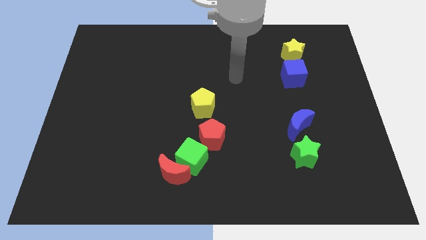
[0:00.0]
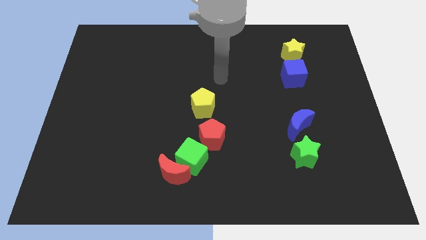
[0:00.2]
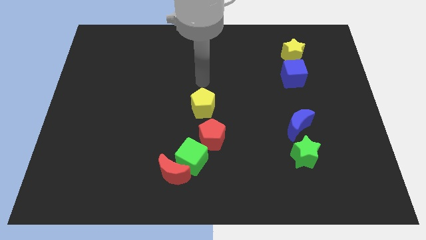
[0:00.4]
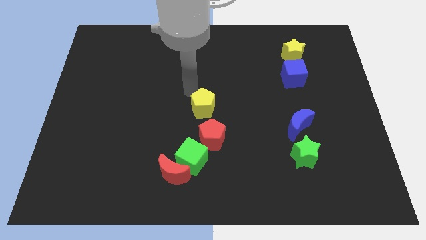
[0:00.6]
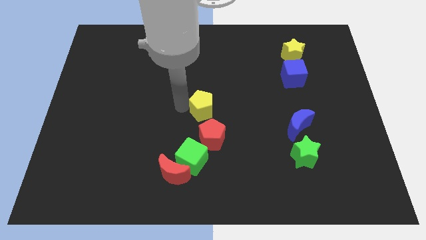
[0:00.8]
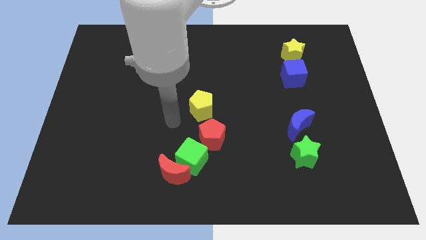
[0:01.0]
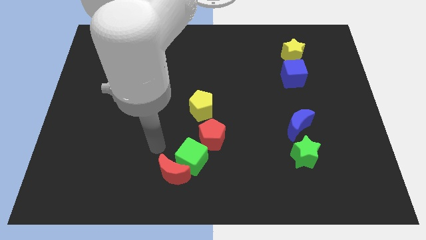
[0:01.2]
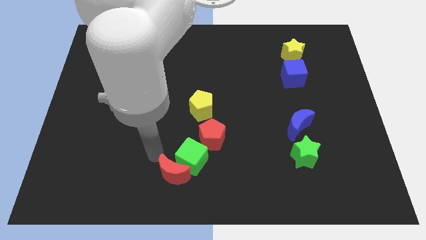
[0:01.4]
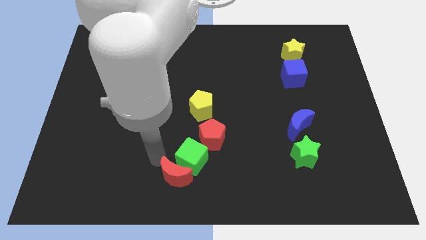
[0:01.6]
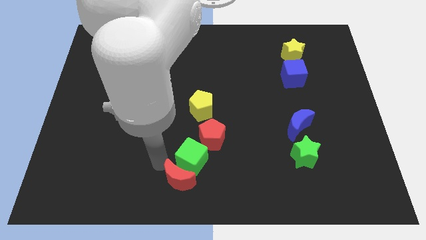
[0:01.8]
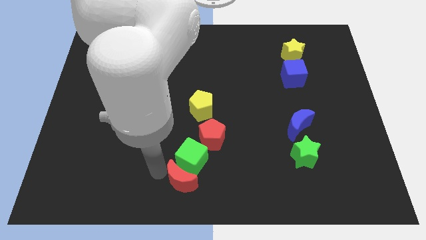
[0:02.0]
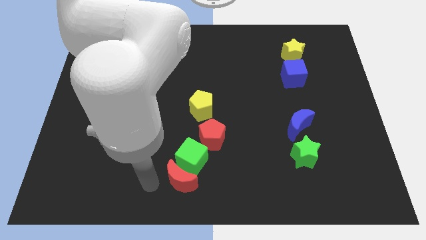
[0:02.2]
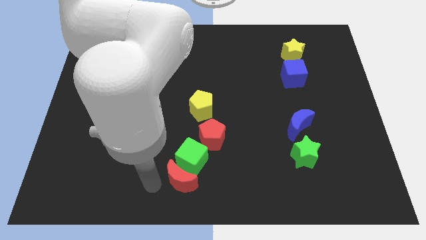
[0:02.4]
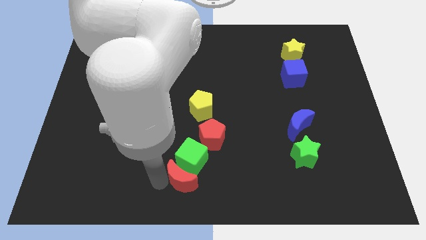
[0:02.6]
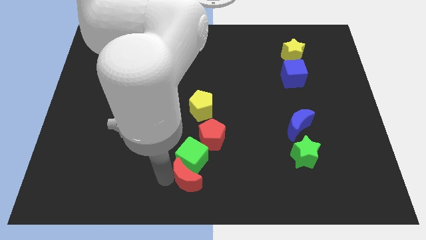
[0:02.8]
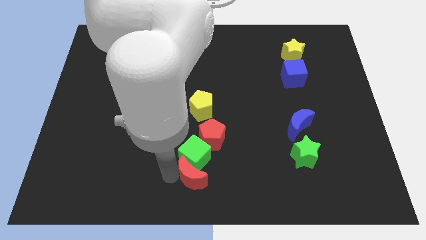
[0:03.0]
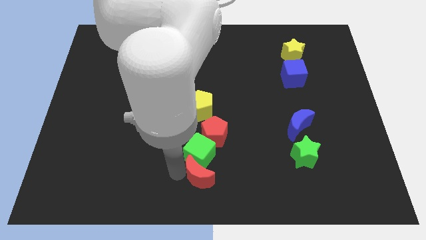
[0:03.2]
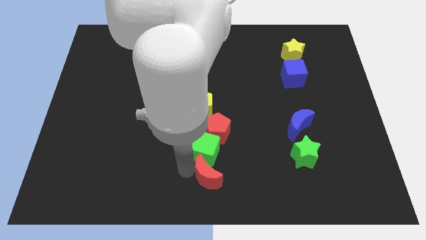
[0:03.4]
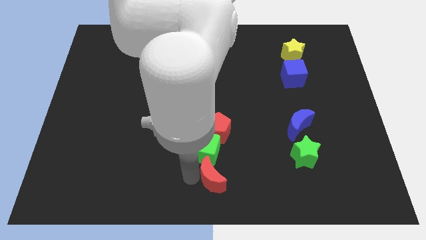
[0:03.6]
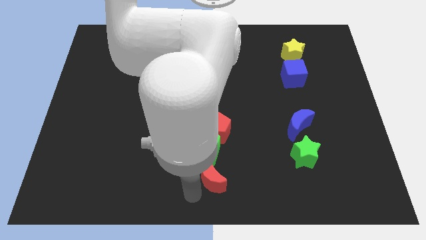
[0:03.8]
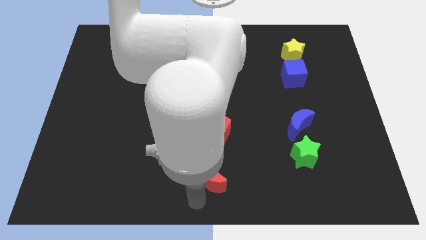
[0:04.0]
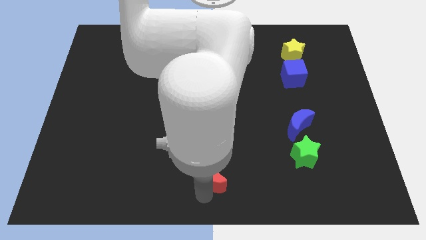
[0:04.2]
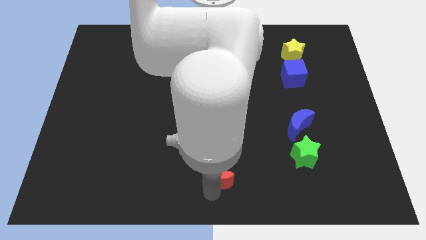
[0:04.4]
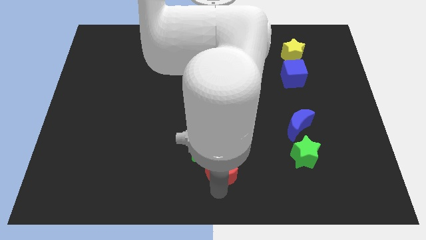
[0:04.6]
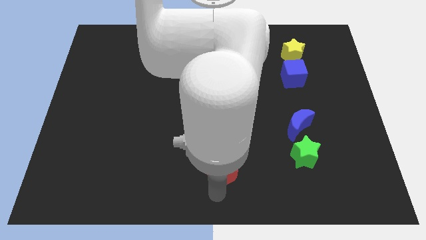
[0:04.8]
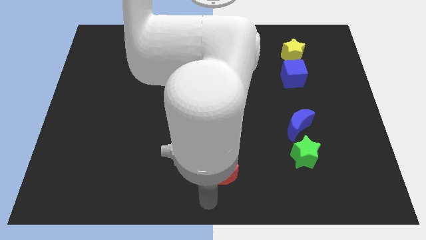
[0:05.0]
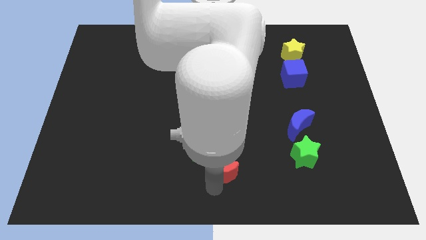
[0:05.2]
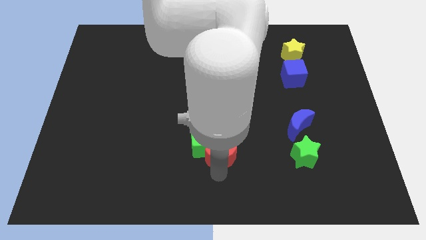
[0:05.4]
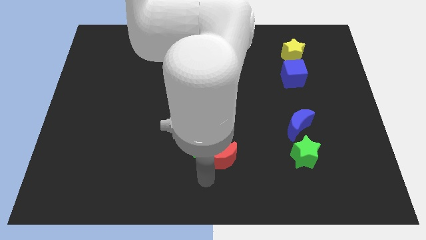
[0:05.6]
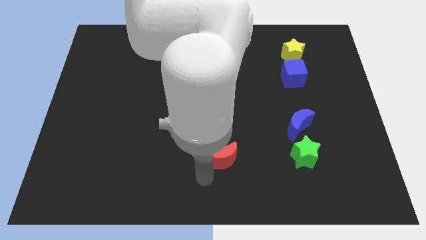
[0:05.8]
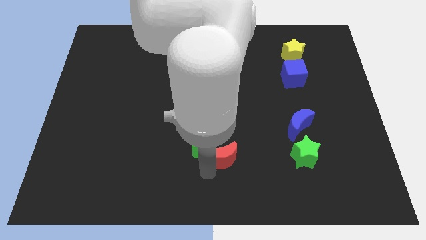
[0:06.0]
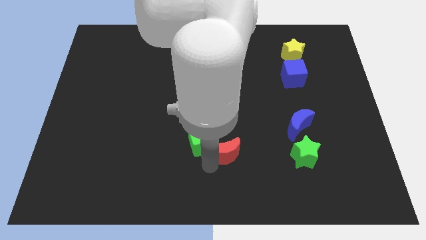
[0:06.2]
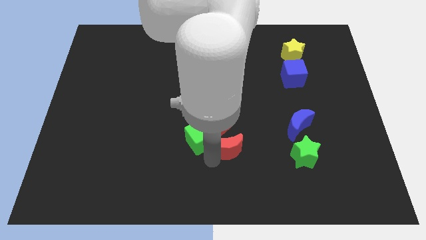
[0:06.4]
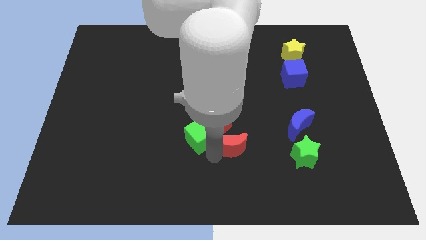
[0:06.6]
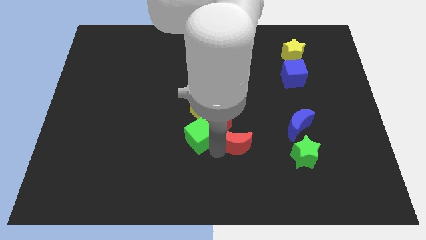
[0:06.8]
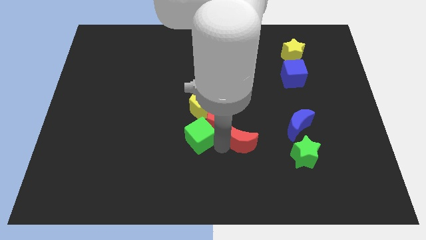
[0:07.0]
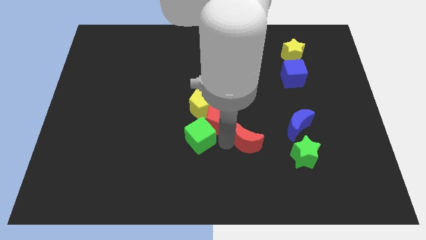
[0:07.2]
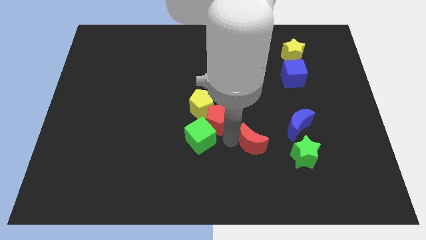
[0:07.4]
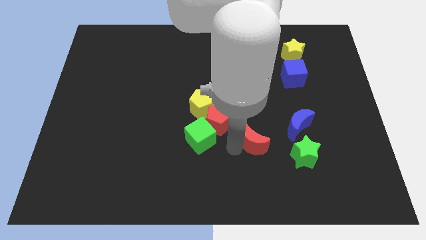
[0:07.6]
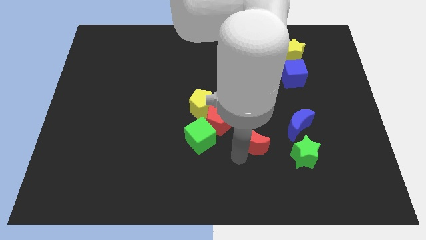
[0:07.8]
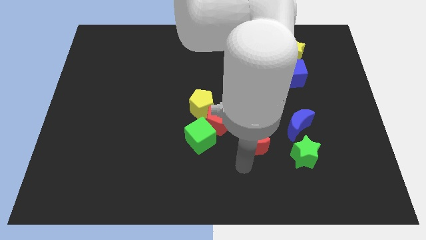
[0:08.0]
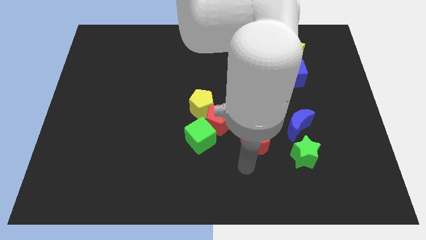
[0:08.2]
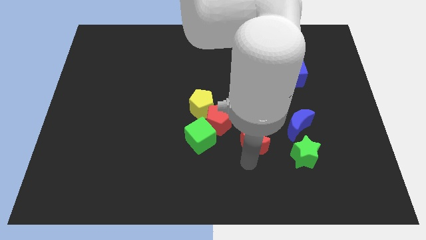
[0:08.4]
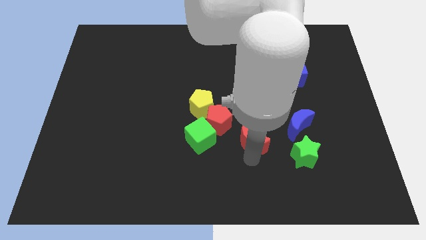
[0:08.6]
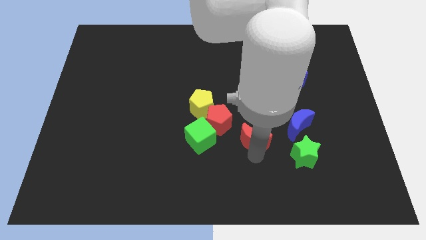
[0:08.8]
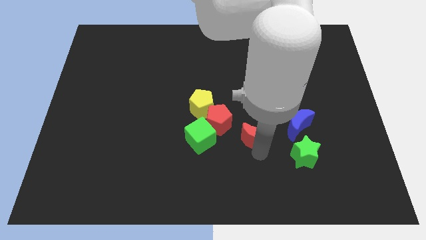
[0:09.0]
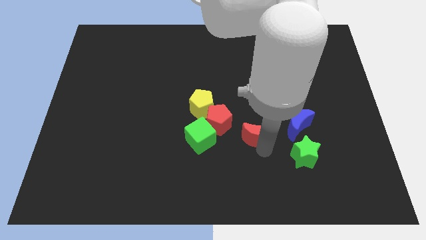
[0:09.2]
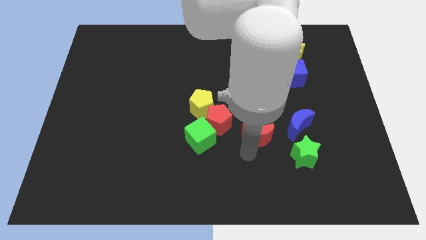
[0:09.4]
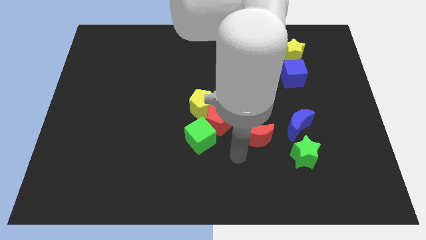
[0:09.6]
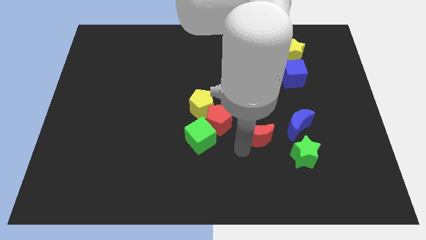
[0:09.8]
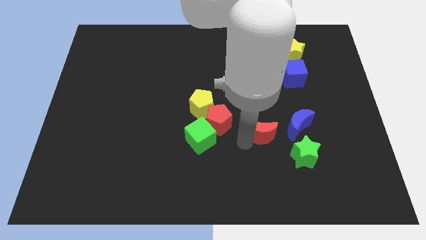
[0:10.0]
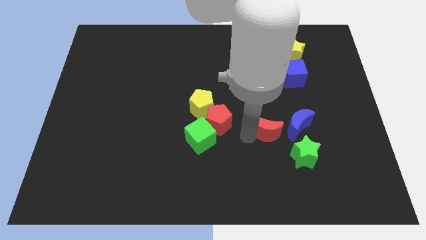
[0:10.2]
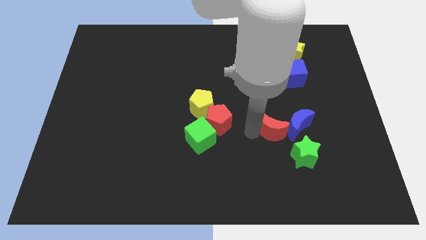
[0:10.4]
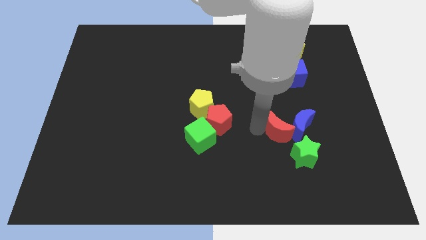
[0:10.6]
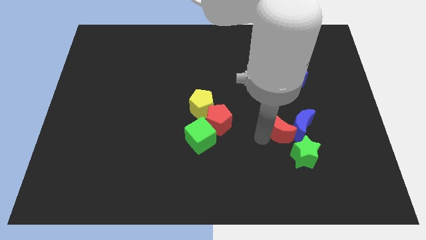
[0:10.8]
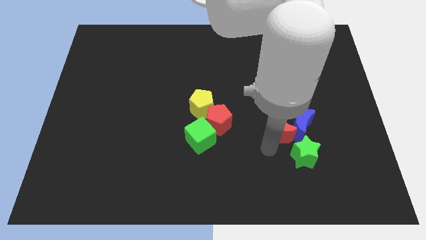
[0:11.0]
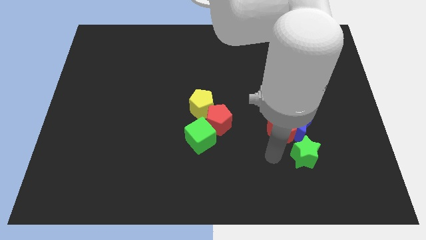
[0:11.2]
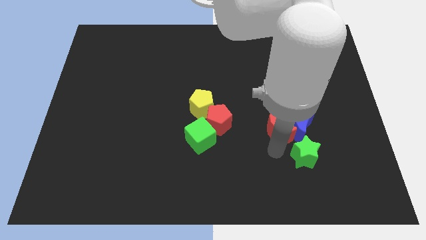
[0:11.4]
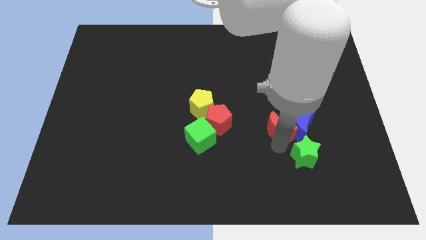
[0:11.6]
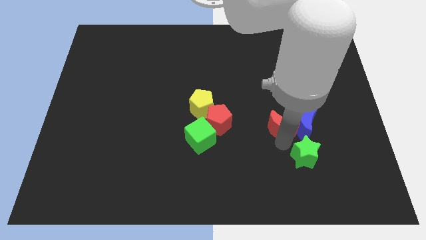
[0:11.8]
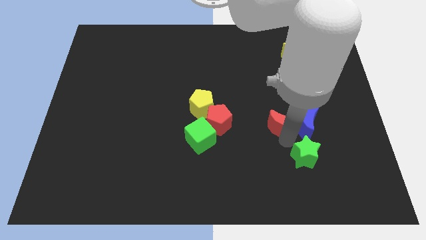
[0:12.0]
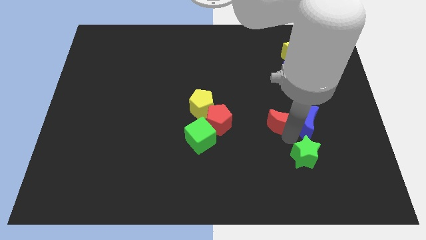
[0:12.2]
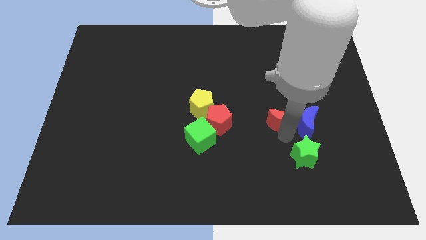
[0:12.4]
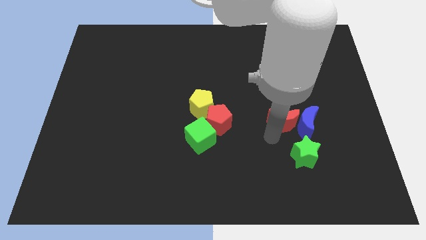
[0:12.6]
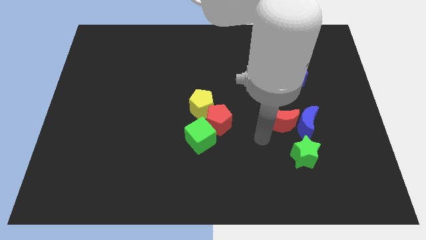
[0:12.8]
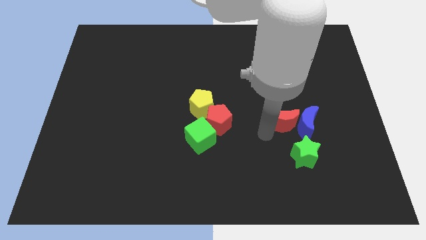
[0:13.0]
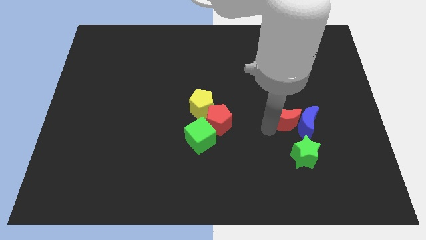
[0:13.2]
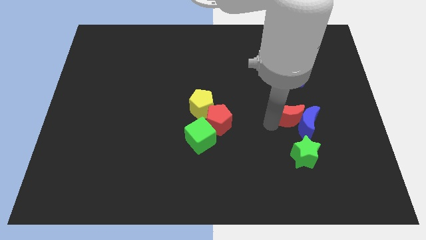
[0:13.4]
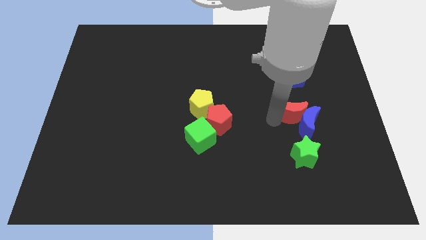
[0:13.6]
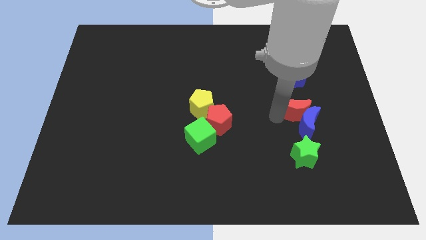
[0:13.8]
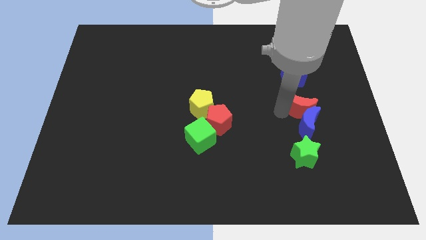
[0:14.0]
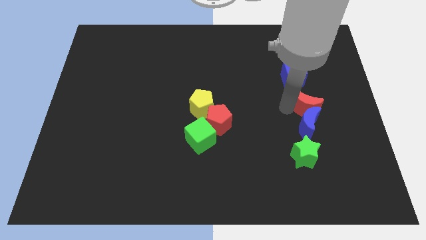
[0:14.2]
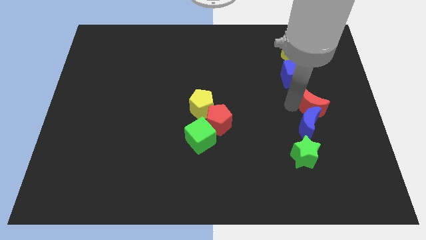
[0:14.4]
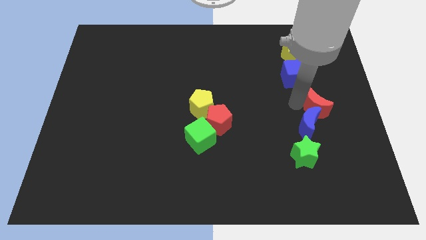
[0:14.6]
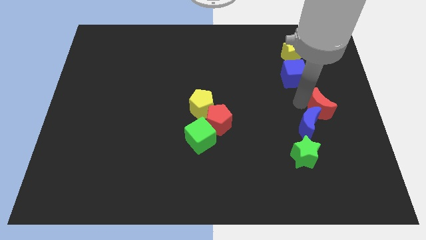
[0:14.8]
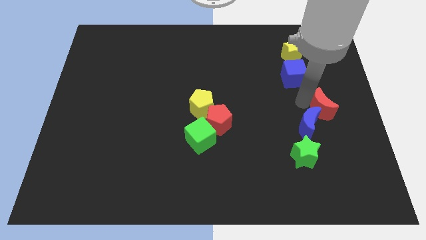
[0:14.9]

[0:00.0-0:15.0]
put the red moon to the right side of the board
